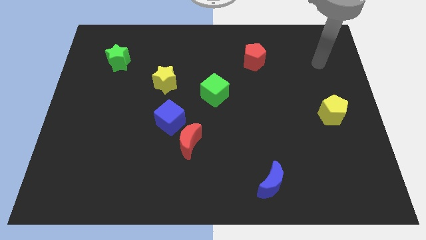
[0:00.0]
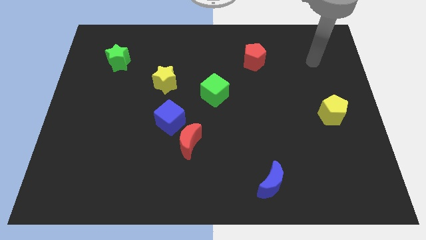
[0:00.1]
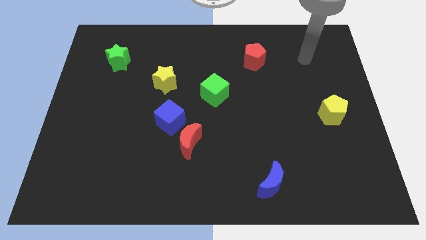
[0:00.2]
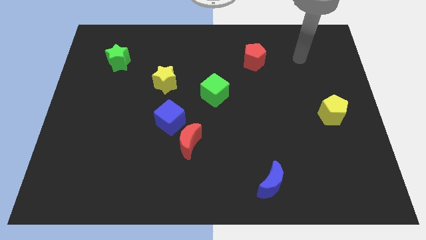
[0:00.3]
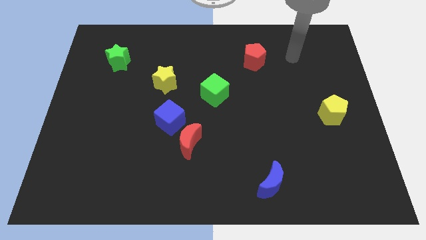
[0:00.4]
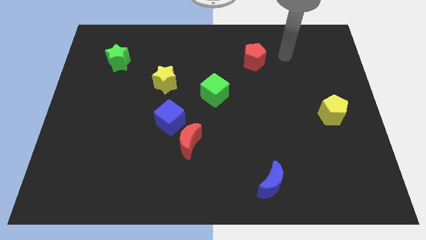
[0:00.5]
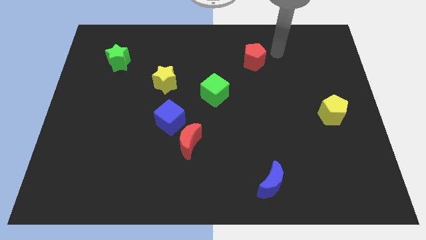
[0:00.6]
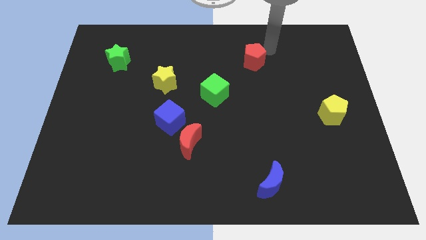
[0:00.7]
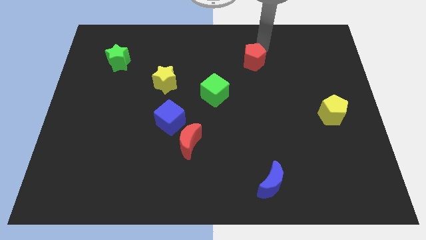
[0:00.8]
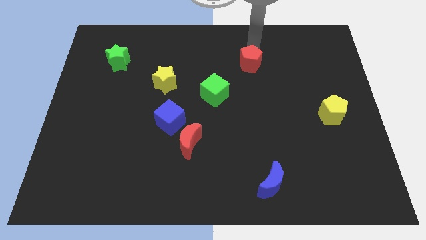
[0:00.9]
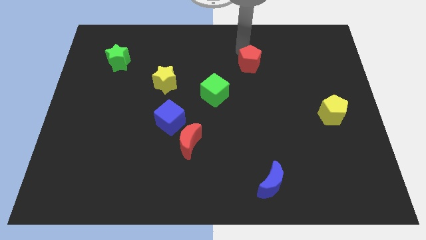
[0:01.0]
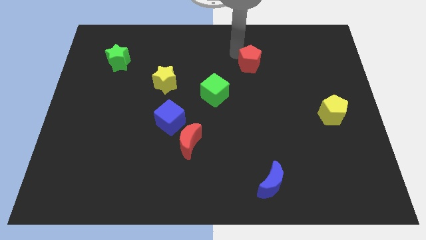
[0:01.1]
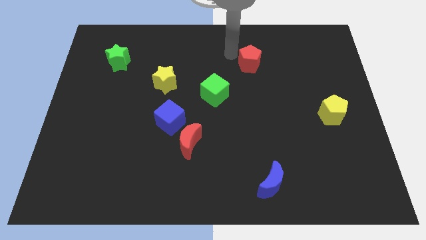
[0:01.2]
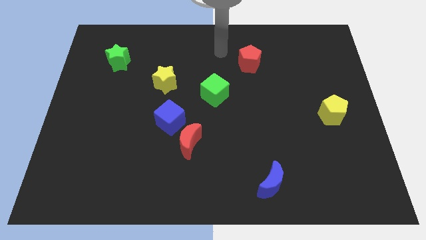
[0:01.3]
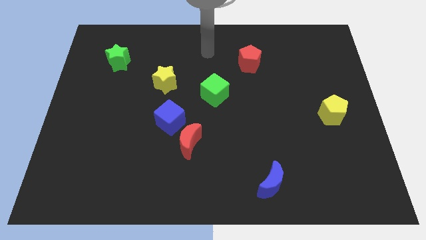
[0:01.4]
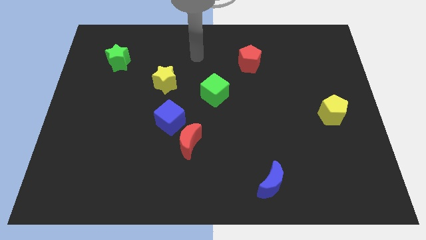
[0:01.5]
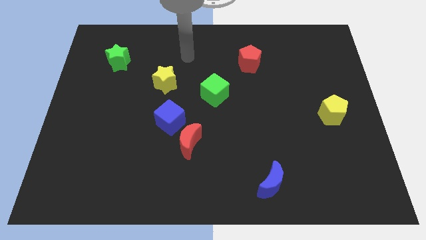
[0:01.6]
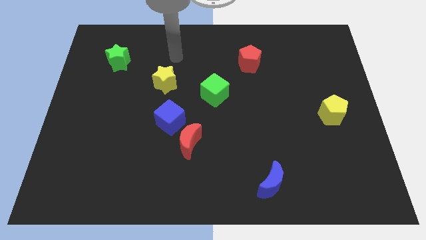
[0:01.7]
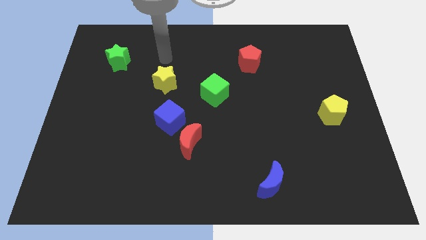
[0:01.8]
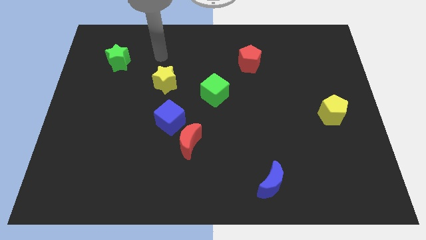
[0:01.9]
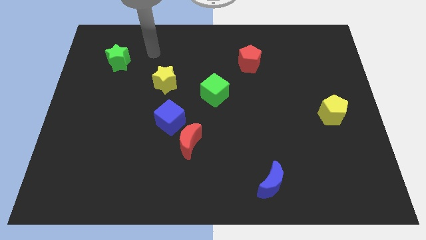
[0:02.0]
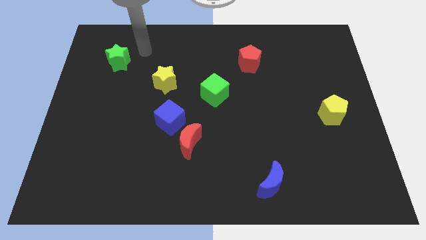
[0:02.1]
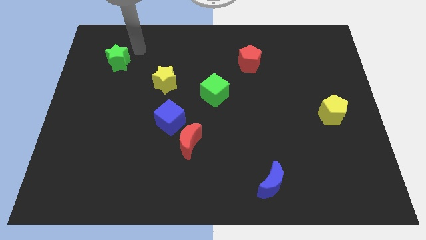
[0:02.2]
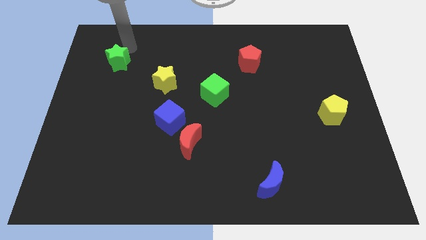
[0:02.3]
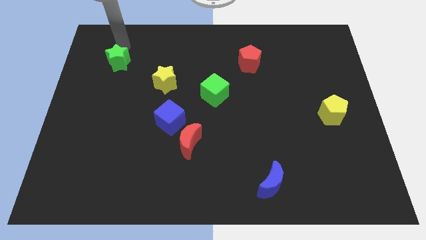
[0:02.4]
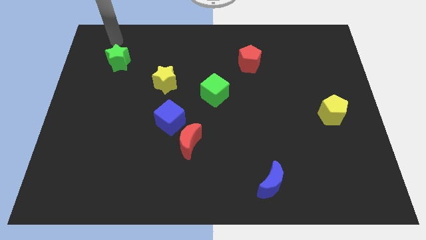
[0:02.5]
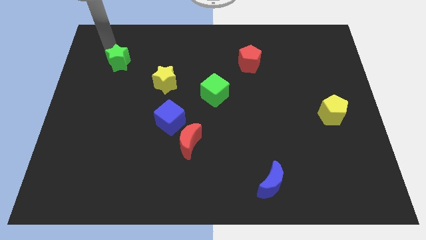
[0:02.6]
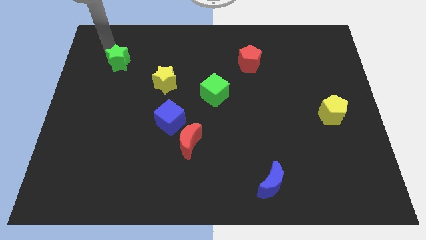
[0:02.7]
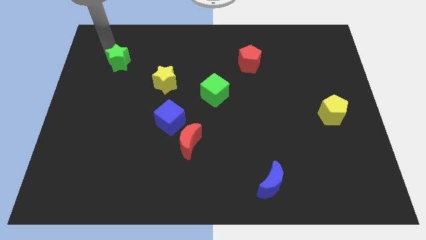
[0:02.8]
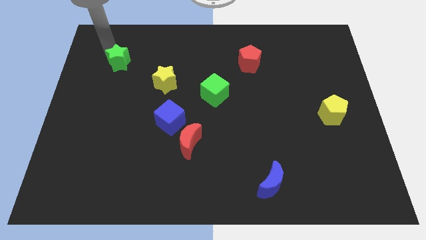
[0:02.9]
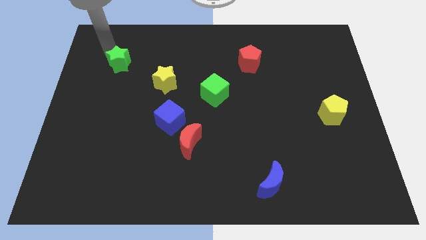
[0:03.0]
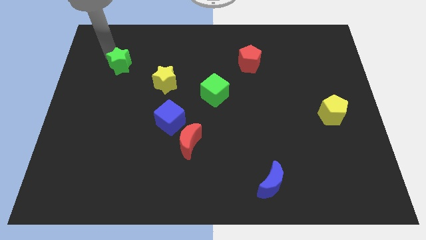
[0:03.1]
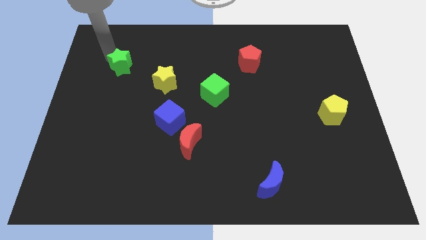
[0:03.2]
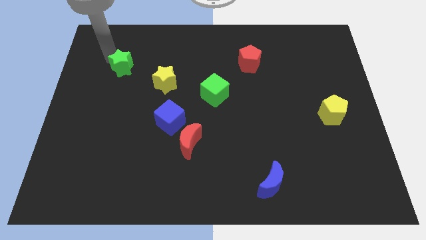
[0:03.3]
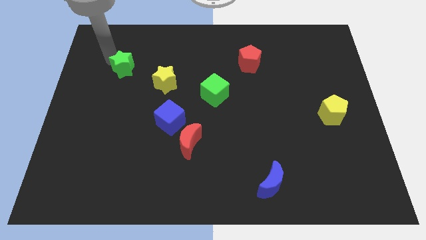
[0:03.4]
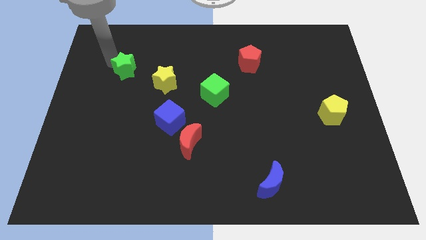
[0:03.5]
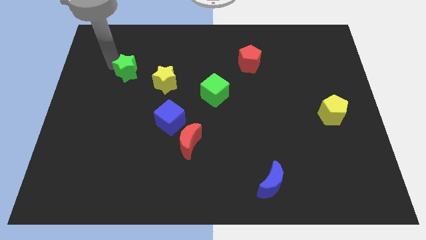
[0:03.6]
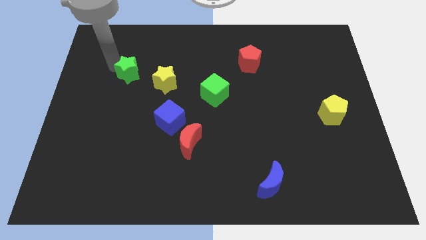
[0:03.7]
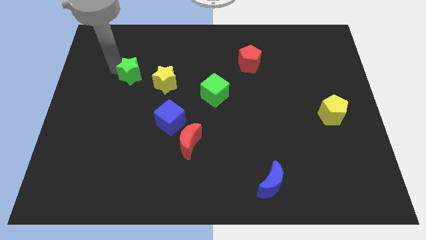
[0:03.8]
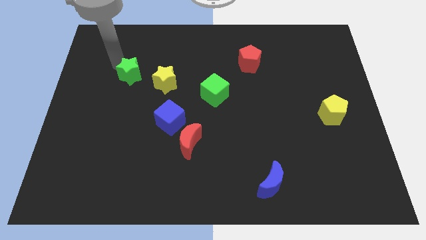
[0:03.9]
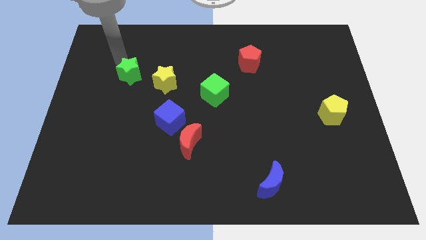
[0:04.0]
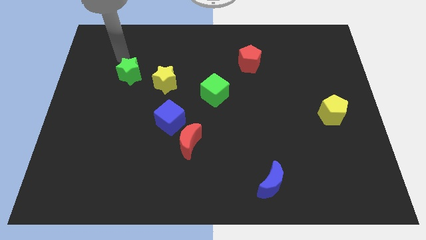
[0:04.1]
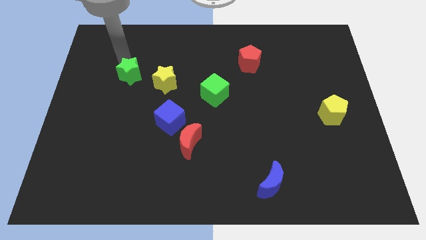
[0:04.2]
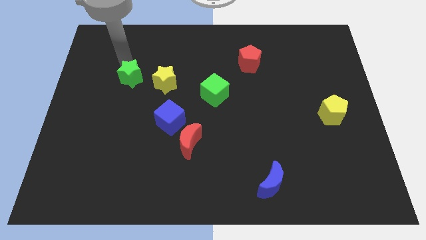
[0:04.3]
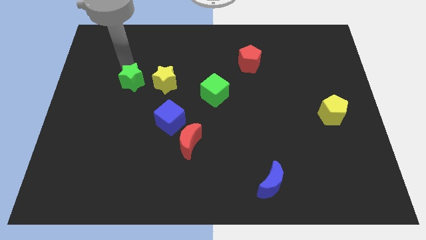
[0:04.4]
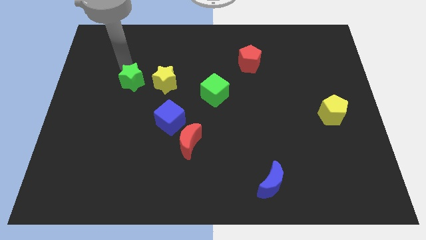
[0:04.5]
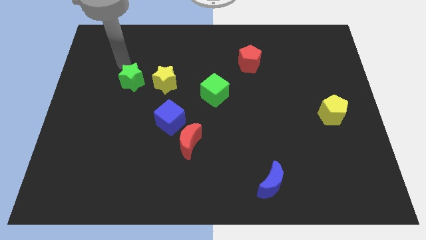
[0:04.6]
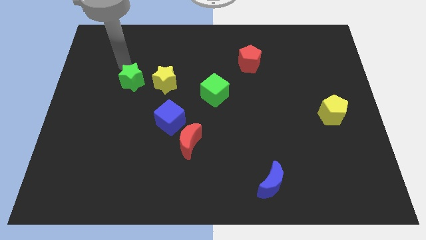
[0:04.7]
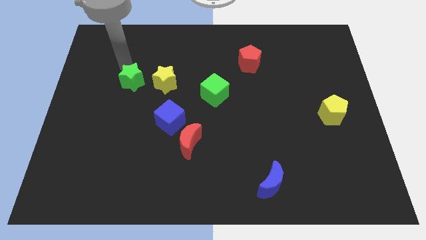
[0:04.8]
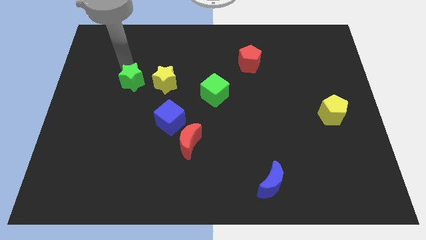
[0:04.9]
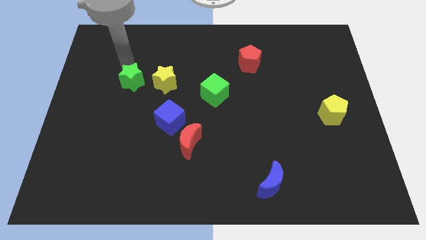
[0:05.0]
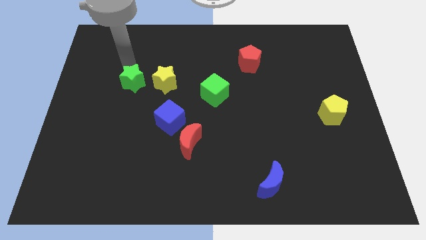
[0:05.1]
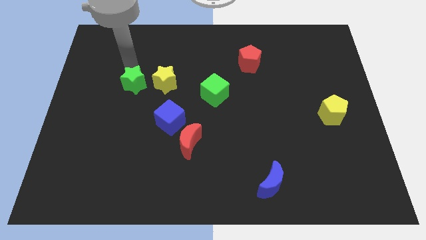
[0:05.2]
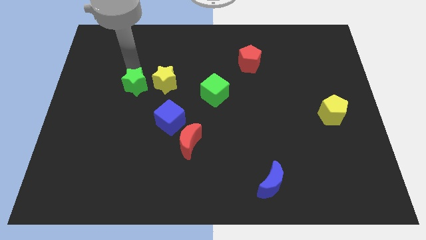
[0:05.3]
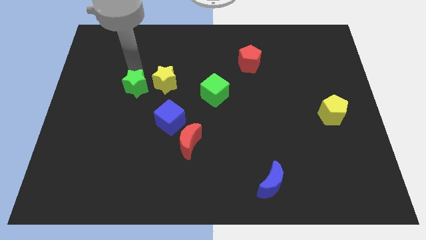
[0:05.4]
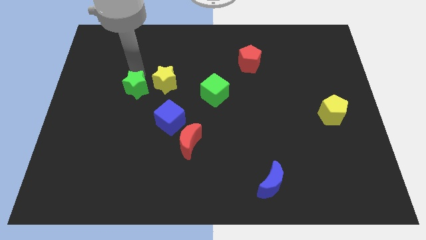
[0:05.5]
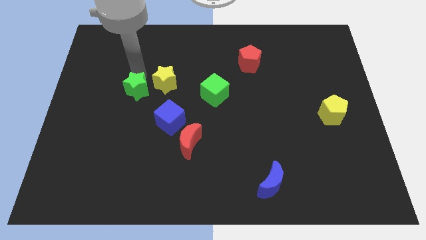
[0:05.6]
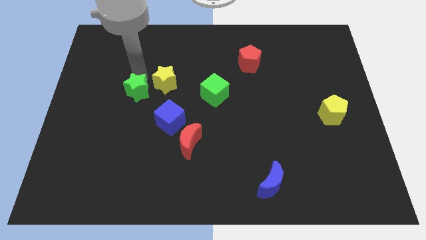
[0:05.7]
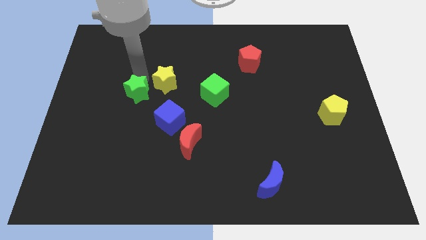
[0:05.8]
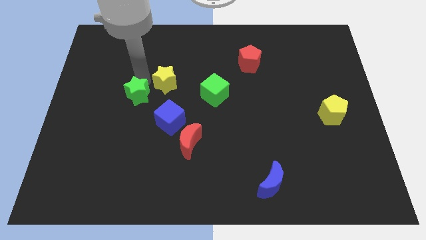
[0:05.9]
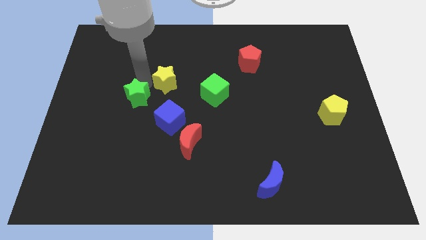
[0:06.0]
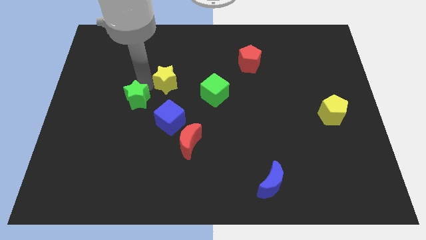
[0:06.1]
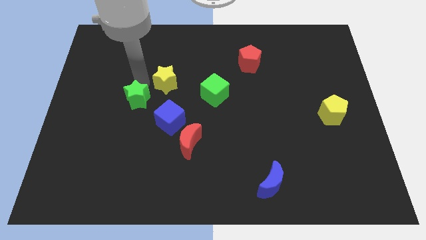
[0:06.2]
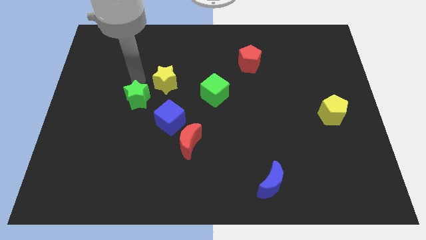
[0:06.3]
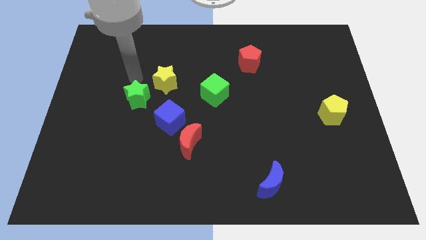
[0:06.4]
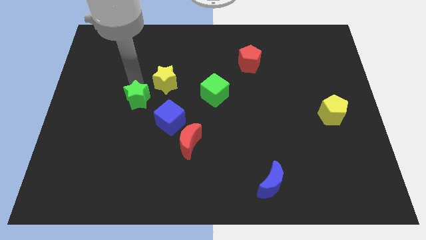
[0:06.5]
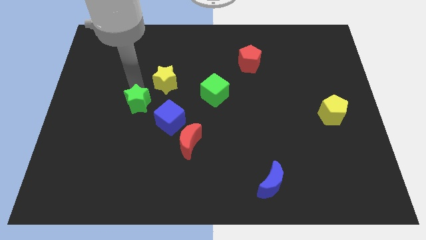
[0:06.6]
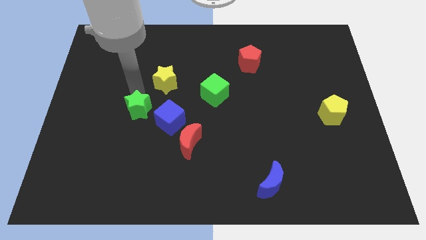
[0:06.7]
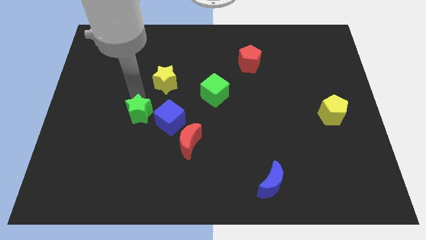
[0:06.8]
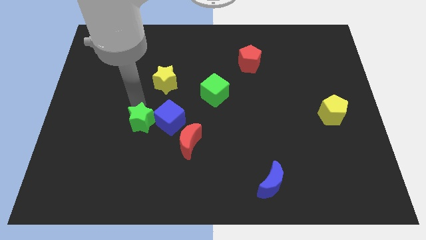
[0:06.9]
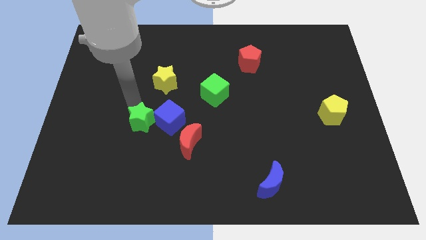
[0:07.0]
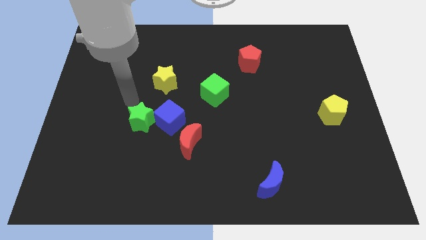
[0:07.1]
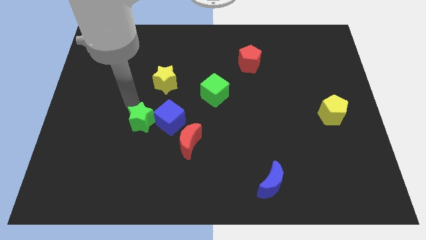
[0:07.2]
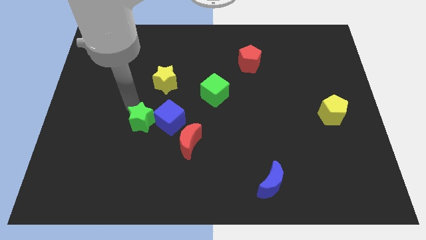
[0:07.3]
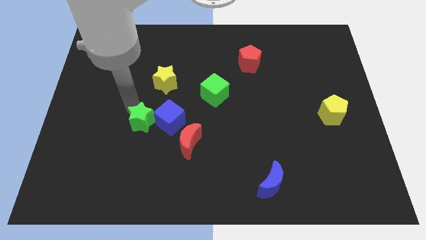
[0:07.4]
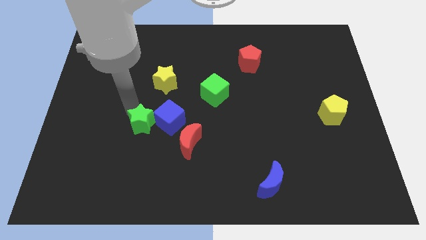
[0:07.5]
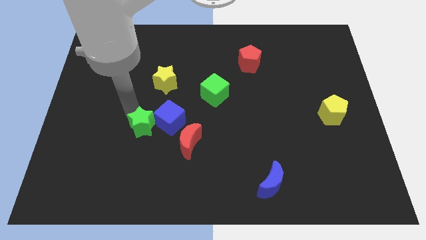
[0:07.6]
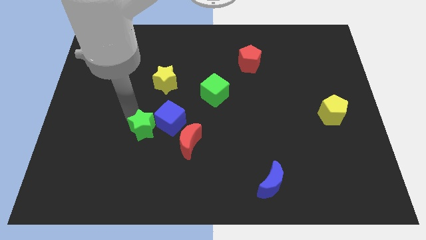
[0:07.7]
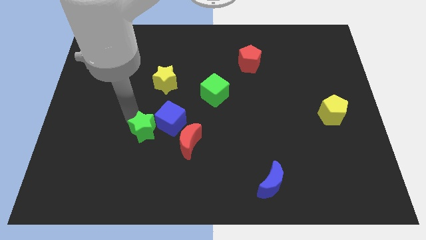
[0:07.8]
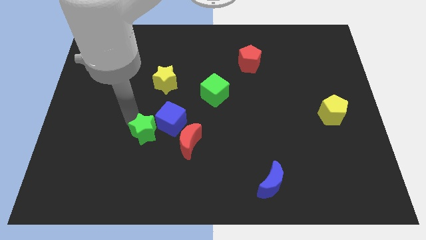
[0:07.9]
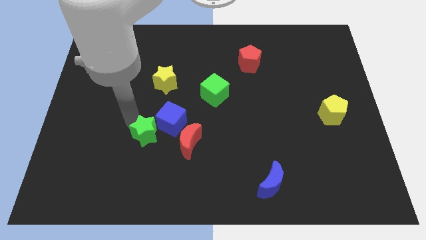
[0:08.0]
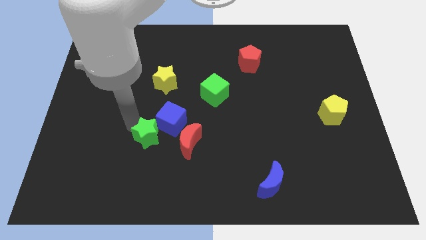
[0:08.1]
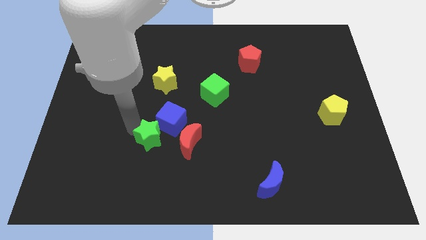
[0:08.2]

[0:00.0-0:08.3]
slide the green star to the bottom of the blue cube
